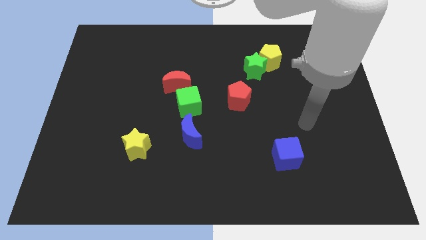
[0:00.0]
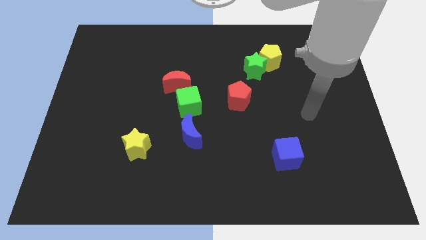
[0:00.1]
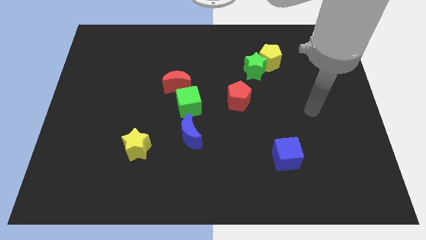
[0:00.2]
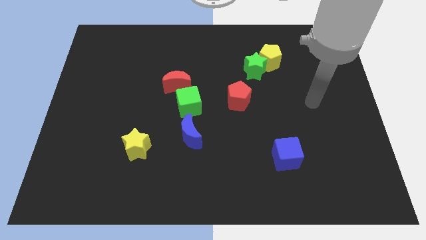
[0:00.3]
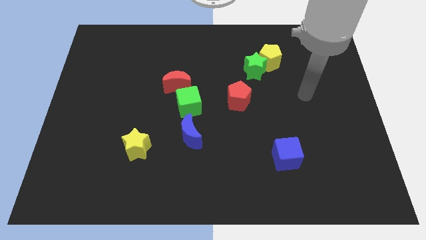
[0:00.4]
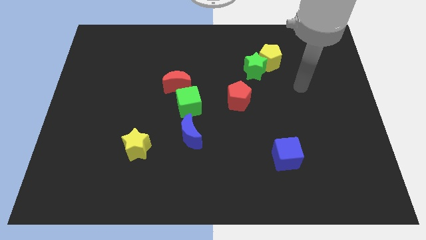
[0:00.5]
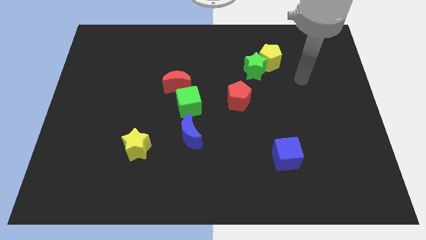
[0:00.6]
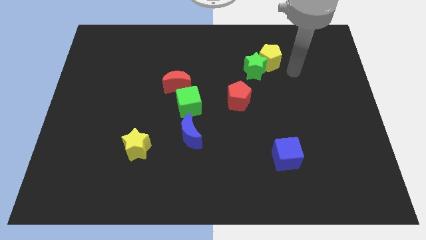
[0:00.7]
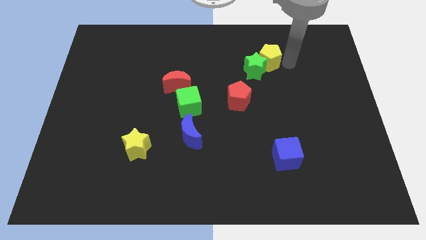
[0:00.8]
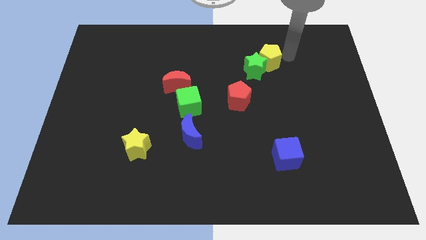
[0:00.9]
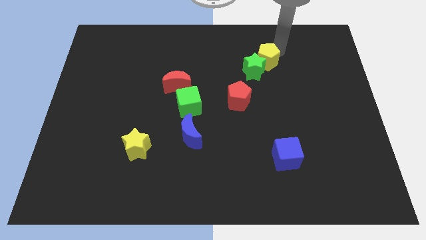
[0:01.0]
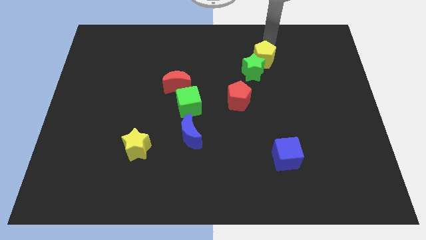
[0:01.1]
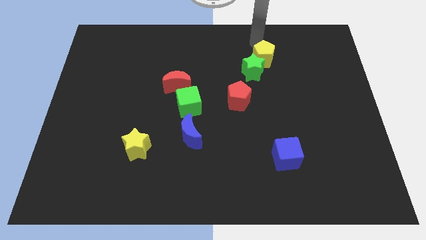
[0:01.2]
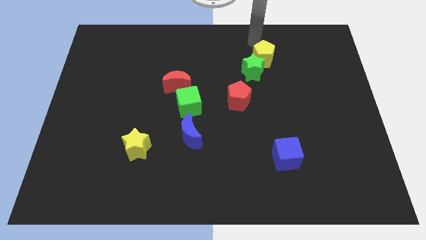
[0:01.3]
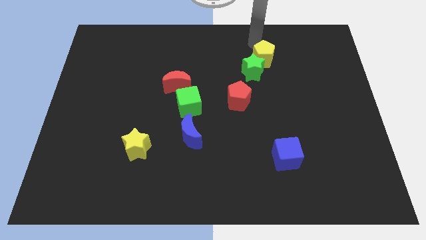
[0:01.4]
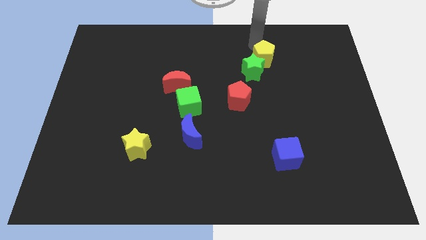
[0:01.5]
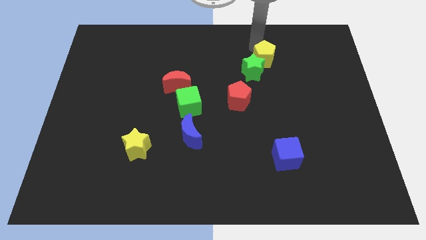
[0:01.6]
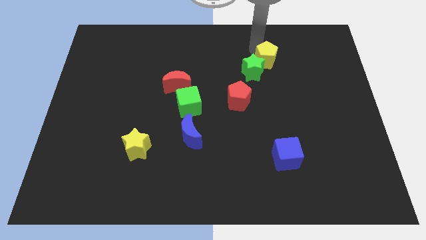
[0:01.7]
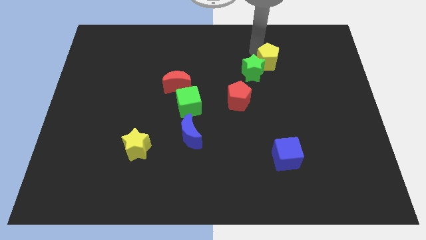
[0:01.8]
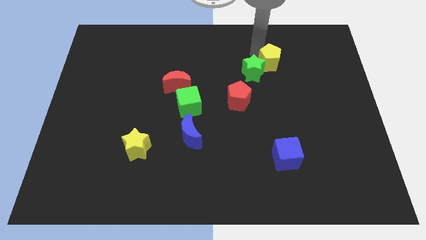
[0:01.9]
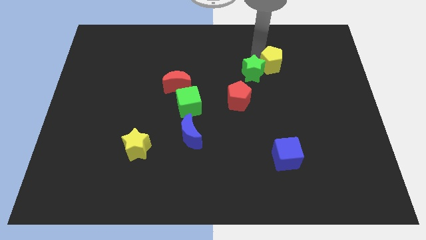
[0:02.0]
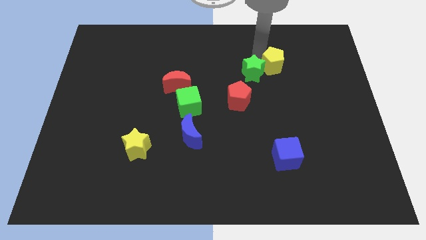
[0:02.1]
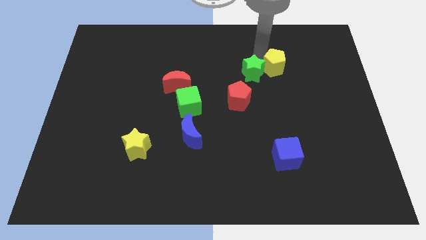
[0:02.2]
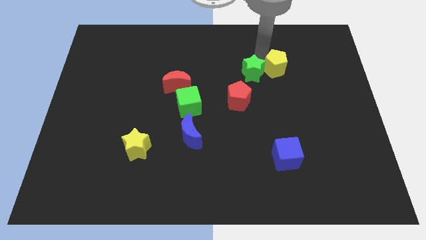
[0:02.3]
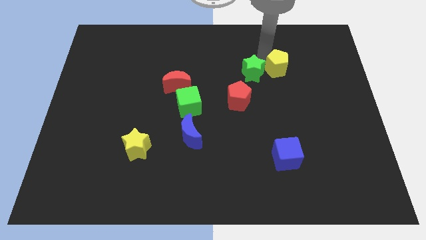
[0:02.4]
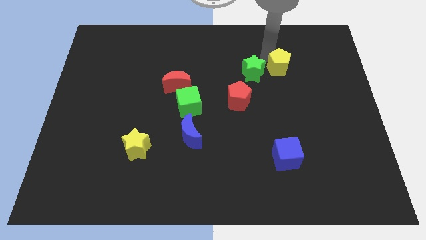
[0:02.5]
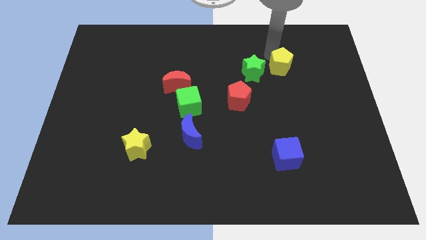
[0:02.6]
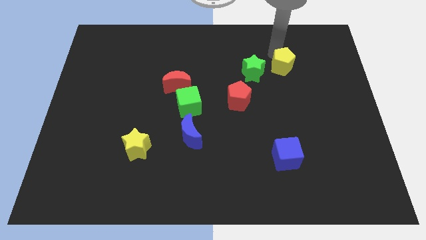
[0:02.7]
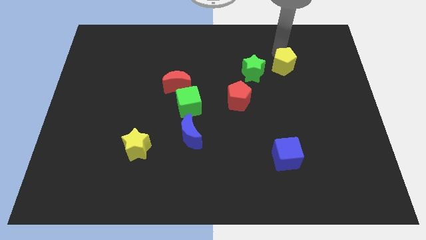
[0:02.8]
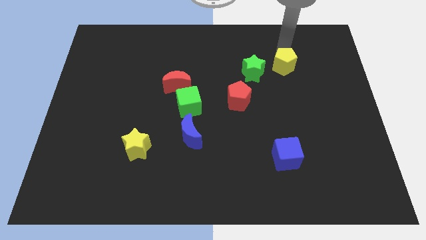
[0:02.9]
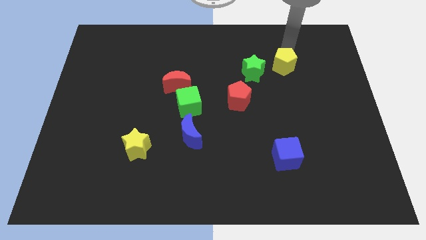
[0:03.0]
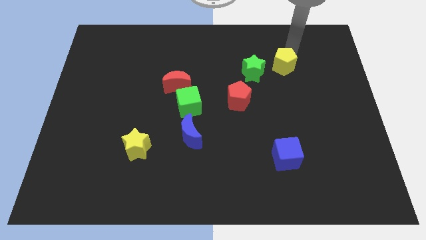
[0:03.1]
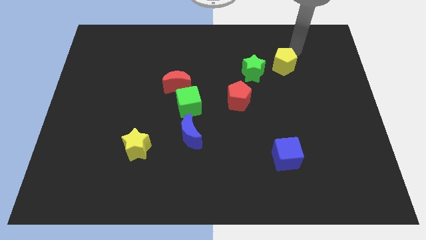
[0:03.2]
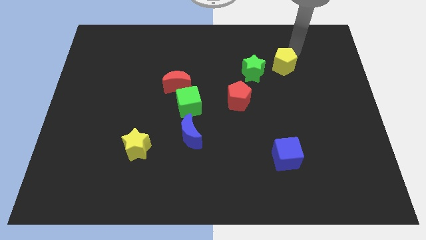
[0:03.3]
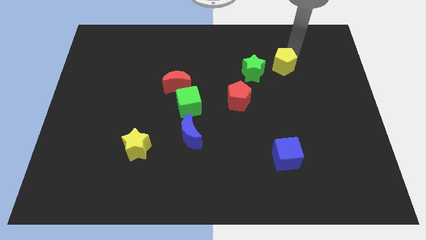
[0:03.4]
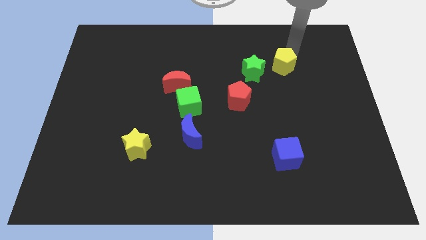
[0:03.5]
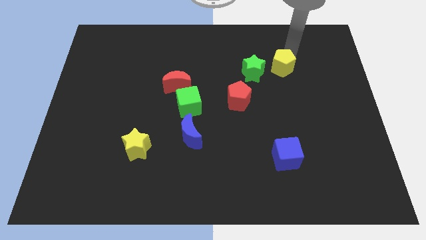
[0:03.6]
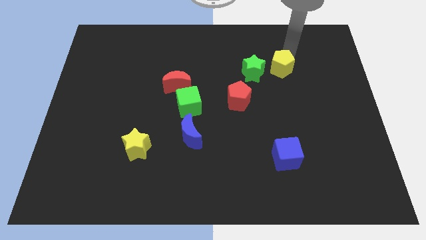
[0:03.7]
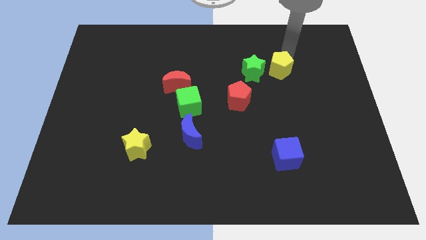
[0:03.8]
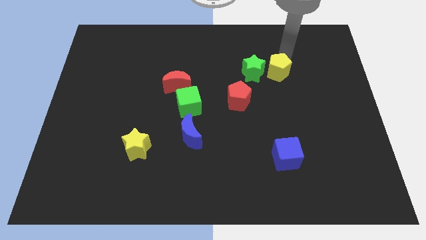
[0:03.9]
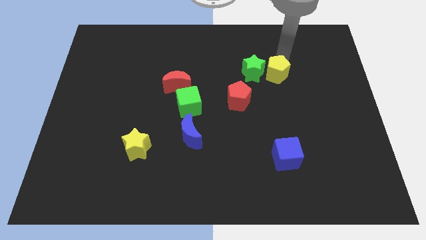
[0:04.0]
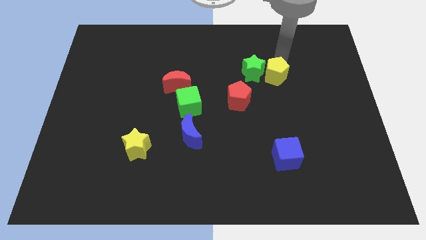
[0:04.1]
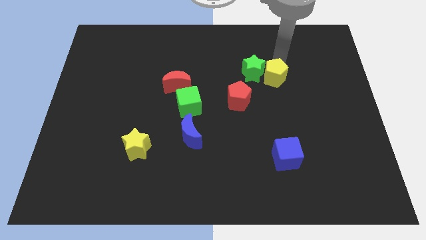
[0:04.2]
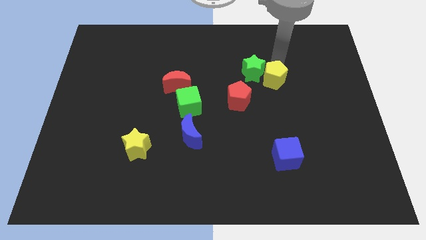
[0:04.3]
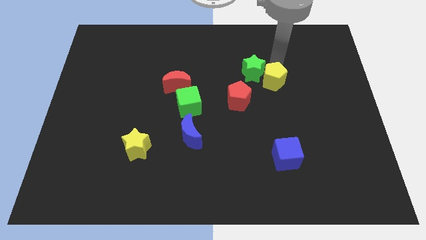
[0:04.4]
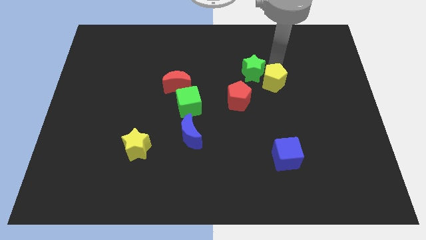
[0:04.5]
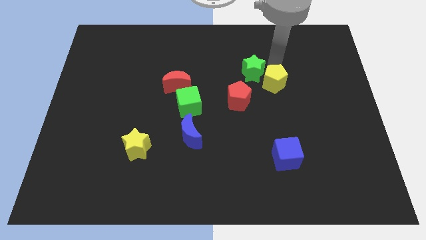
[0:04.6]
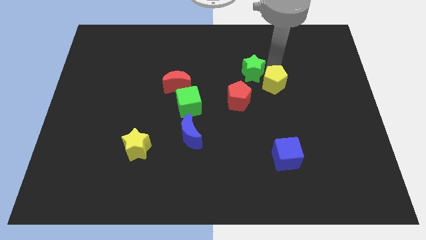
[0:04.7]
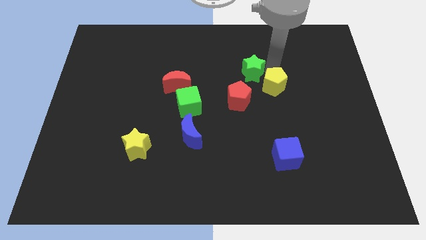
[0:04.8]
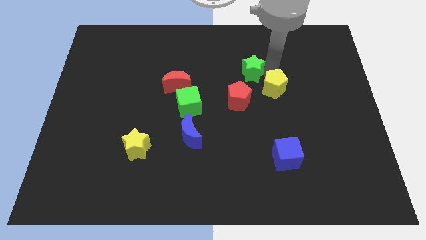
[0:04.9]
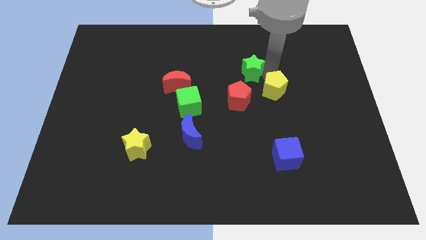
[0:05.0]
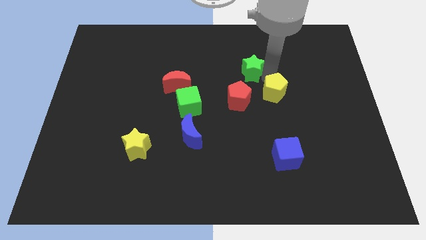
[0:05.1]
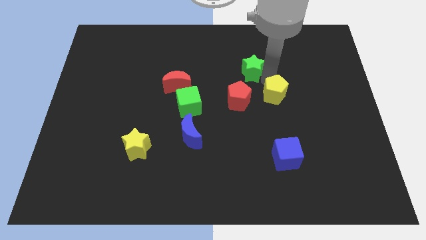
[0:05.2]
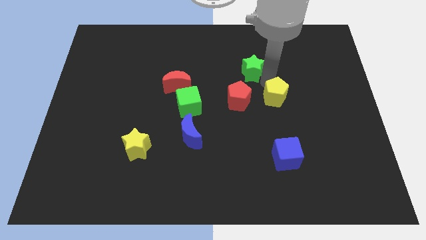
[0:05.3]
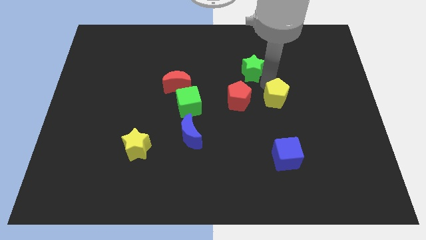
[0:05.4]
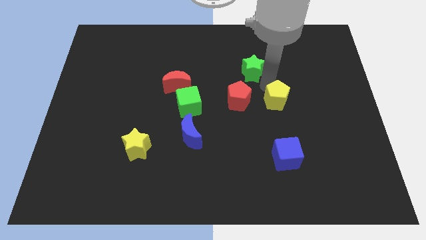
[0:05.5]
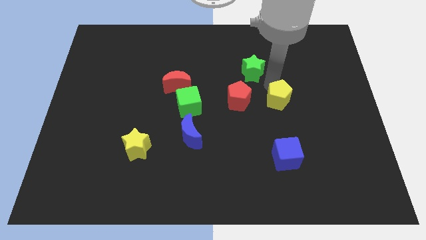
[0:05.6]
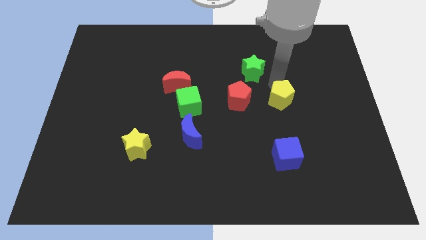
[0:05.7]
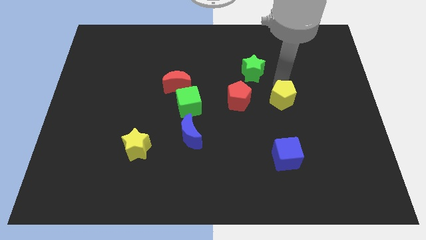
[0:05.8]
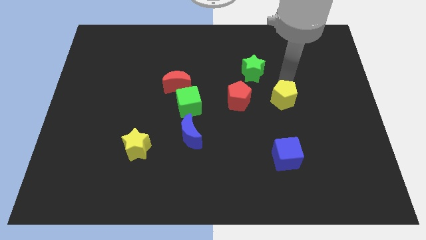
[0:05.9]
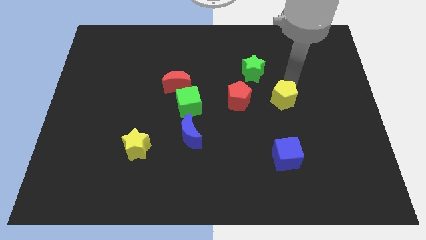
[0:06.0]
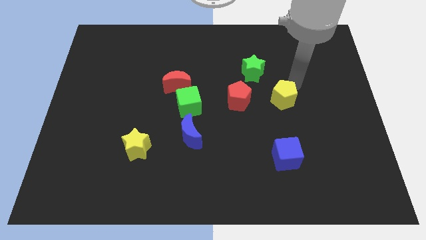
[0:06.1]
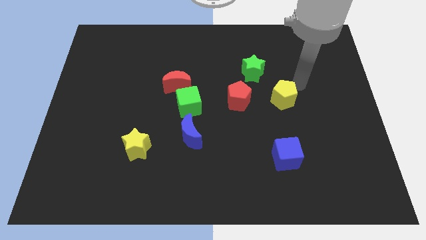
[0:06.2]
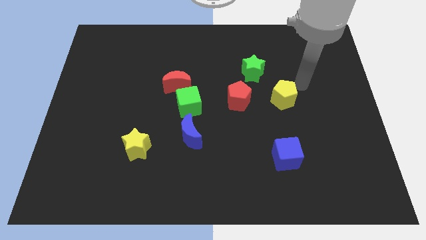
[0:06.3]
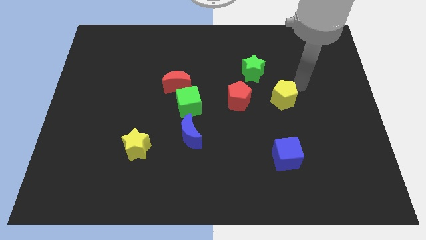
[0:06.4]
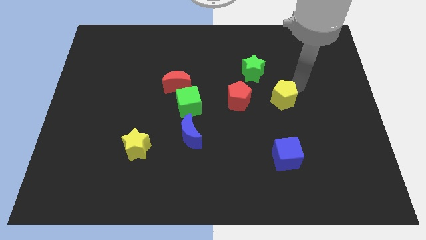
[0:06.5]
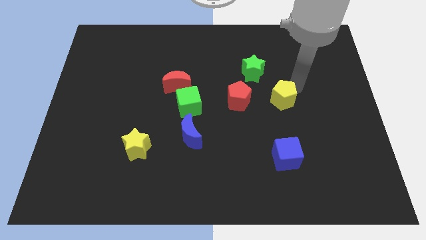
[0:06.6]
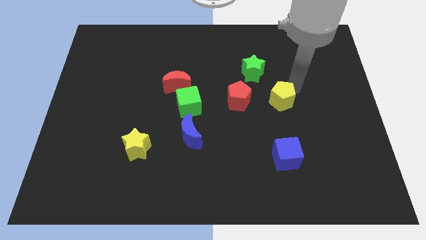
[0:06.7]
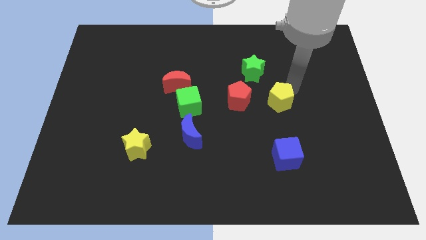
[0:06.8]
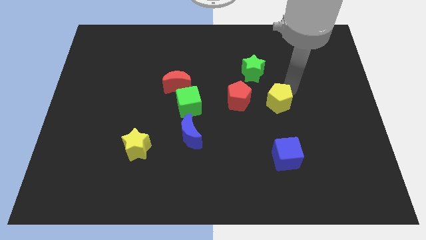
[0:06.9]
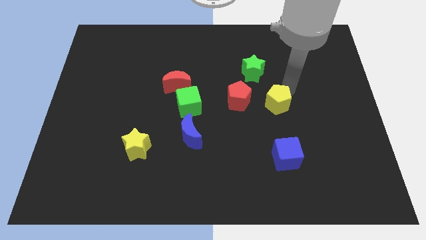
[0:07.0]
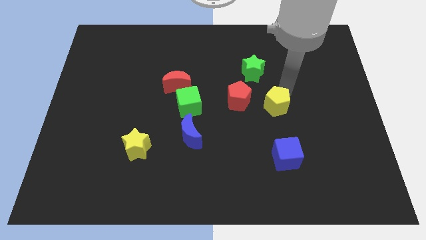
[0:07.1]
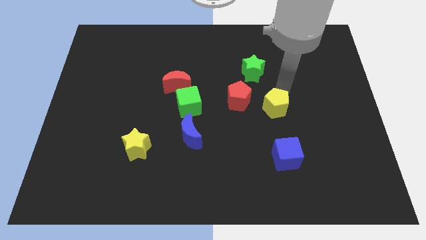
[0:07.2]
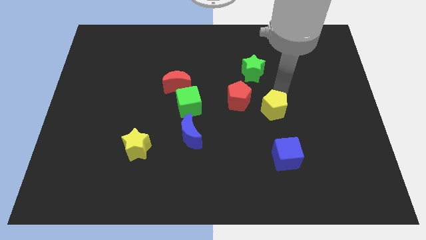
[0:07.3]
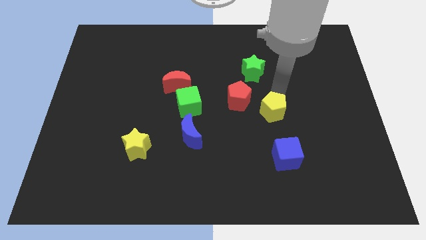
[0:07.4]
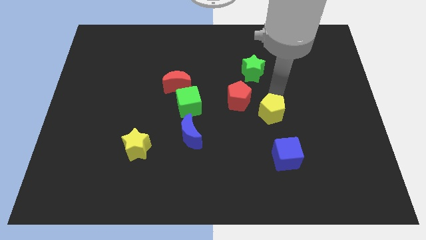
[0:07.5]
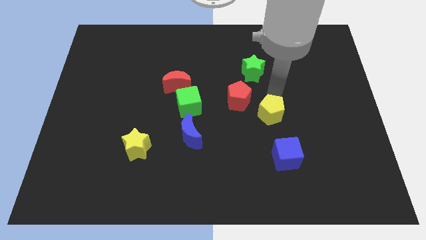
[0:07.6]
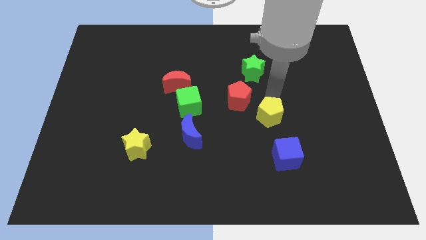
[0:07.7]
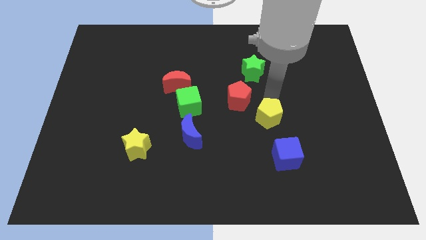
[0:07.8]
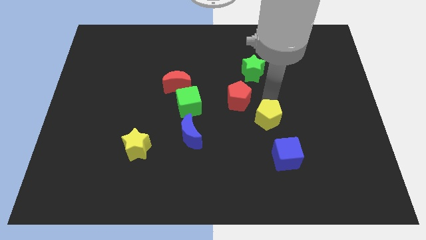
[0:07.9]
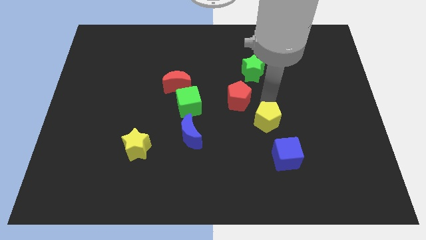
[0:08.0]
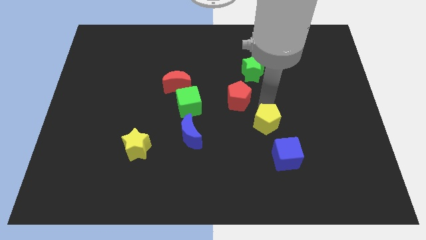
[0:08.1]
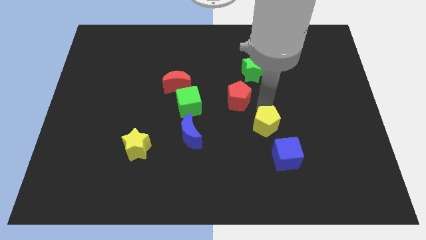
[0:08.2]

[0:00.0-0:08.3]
slide the yellow pentagon downwards
